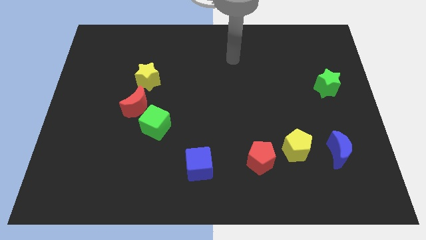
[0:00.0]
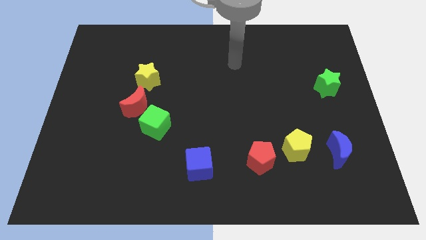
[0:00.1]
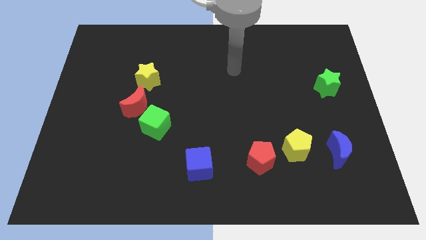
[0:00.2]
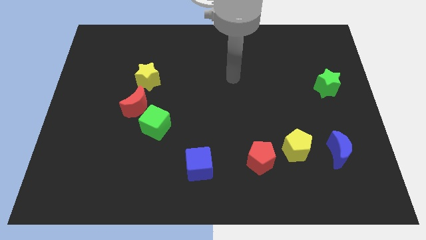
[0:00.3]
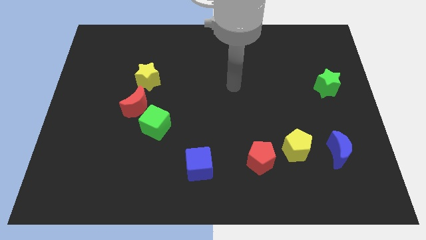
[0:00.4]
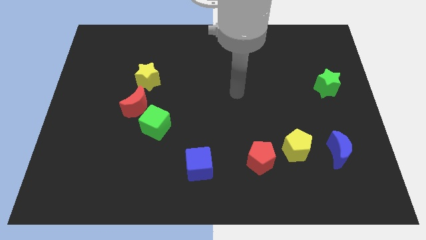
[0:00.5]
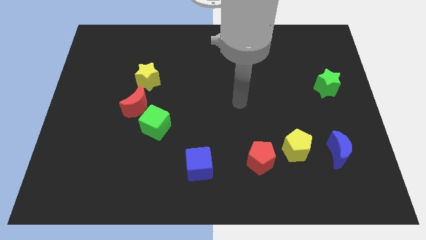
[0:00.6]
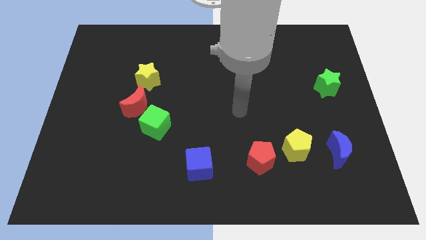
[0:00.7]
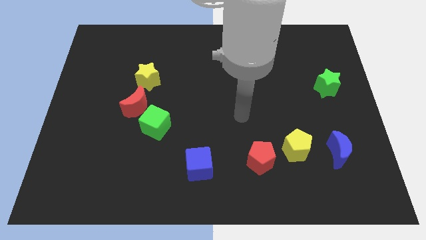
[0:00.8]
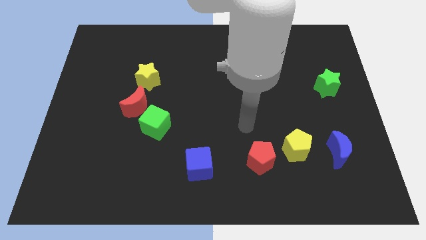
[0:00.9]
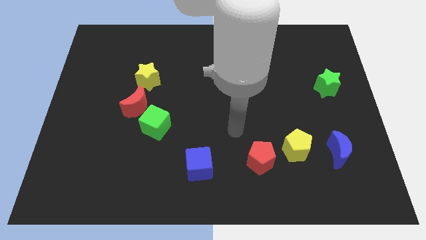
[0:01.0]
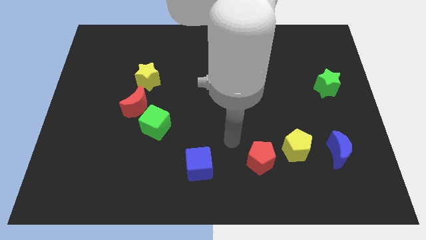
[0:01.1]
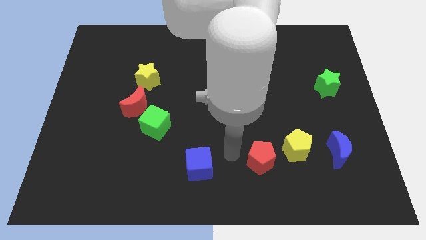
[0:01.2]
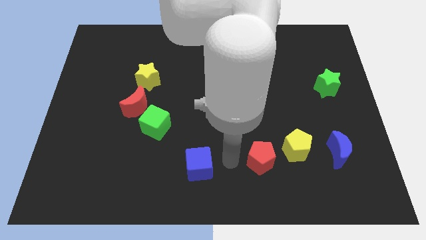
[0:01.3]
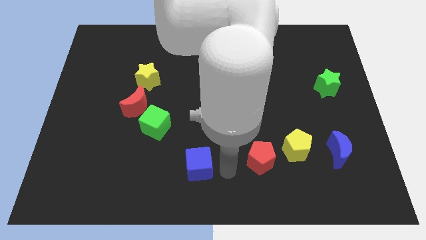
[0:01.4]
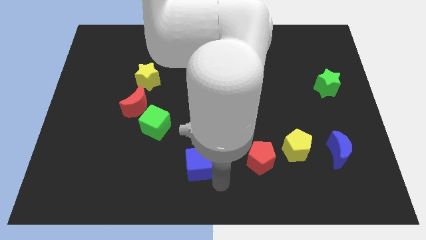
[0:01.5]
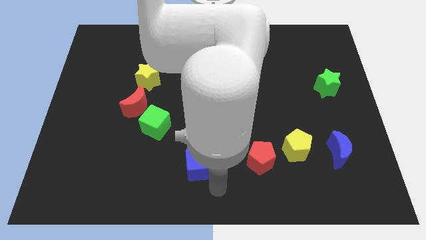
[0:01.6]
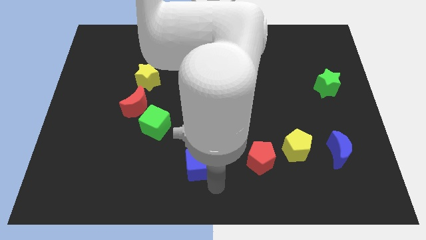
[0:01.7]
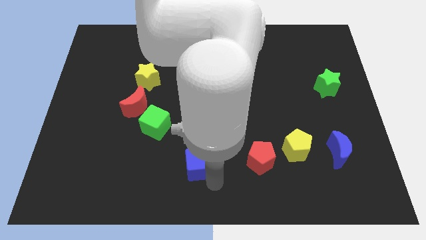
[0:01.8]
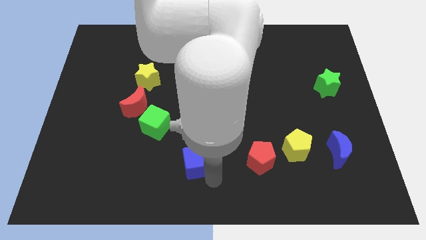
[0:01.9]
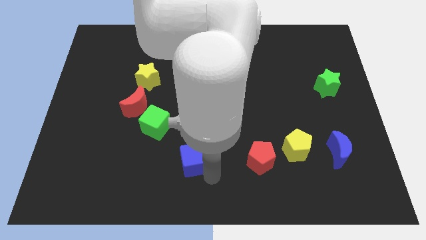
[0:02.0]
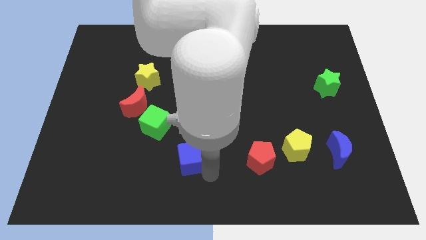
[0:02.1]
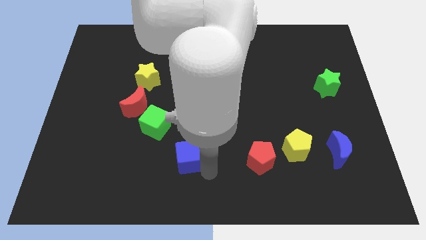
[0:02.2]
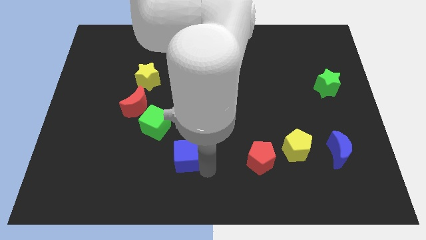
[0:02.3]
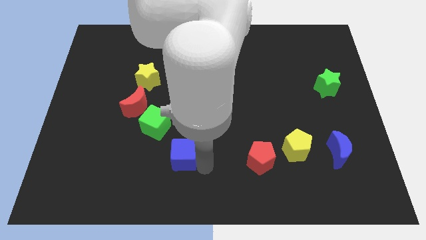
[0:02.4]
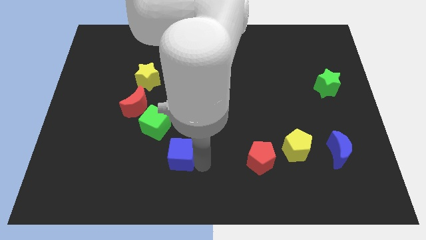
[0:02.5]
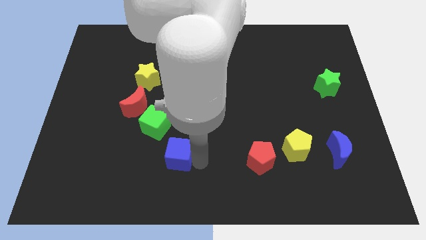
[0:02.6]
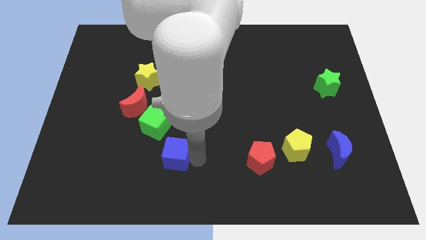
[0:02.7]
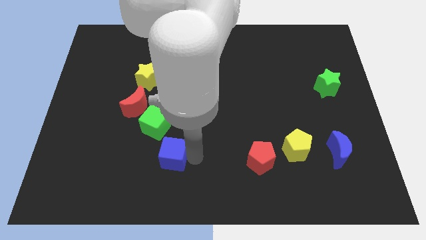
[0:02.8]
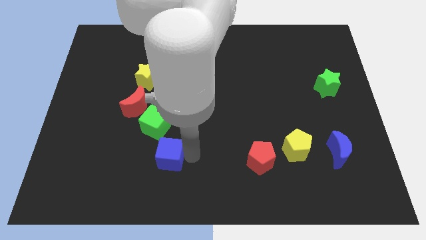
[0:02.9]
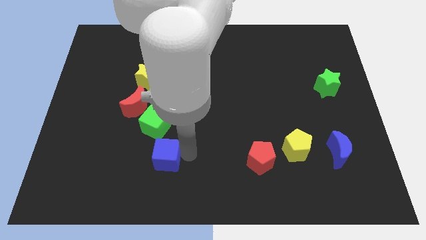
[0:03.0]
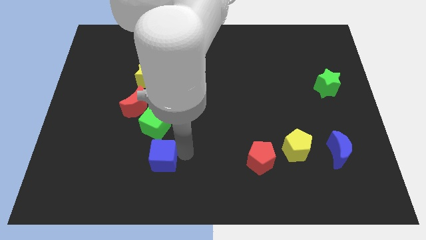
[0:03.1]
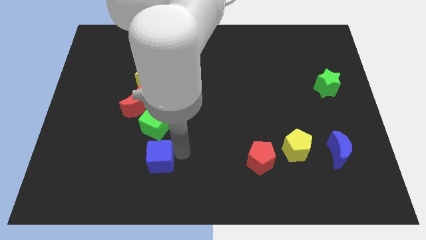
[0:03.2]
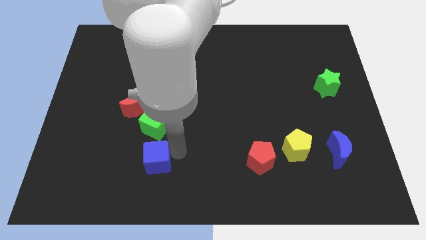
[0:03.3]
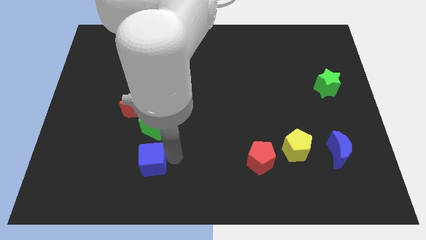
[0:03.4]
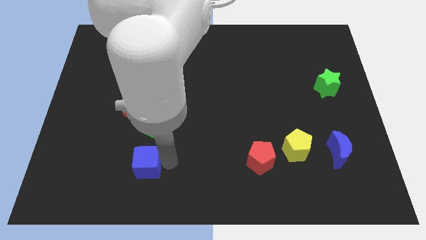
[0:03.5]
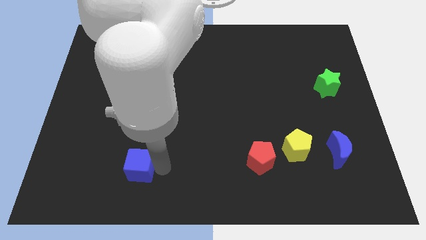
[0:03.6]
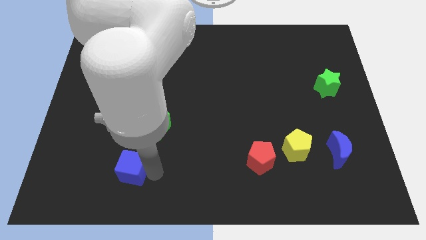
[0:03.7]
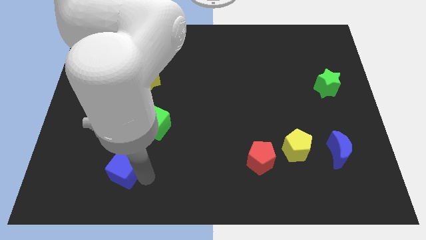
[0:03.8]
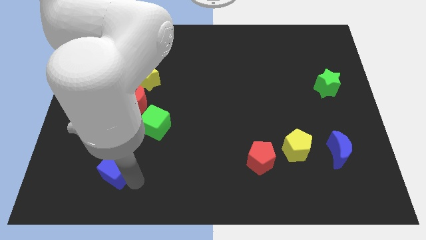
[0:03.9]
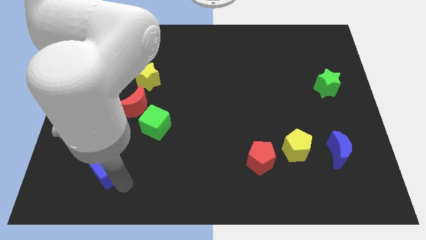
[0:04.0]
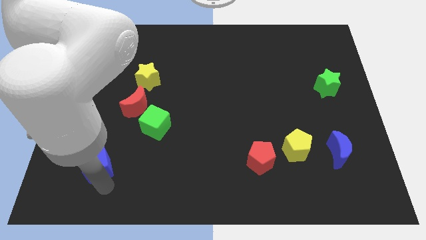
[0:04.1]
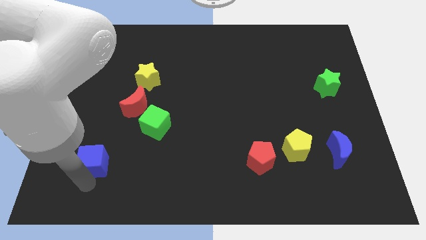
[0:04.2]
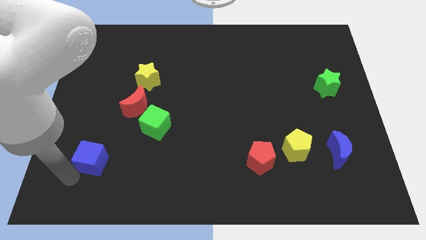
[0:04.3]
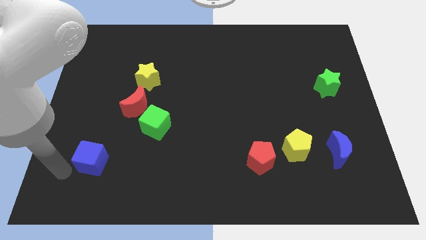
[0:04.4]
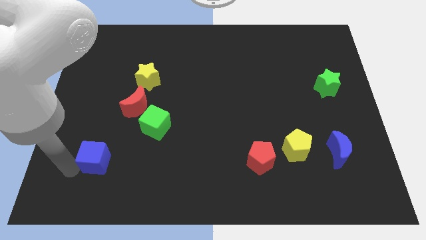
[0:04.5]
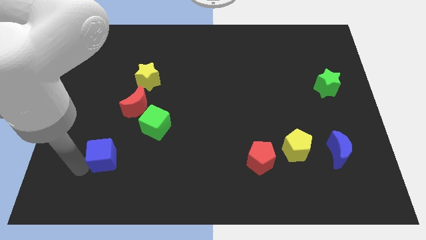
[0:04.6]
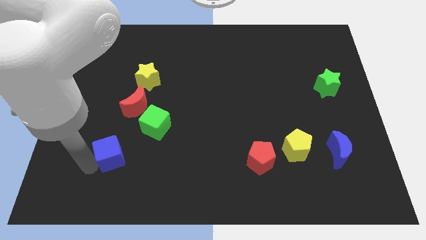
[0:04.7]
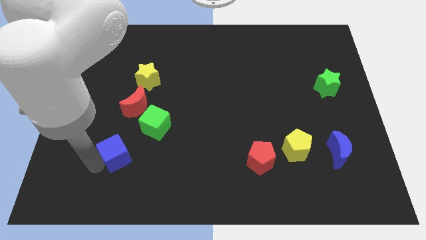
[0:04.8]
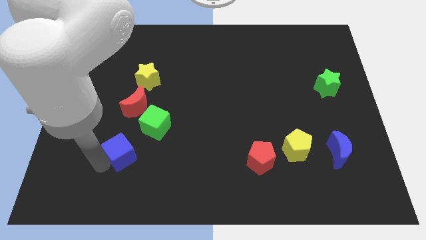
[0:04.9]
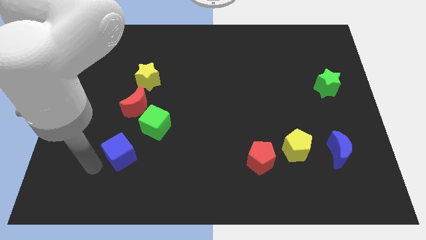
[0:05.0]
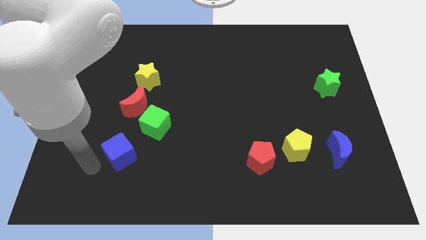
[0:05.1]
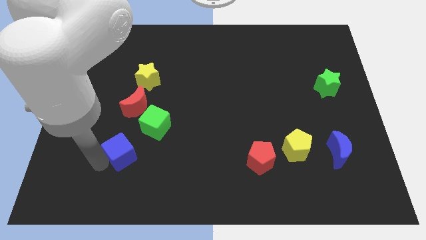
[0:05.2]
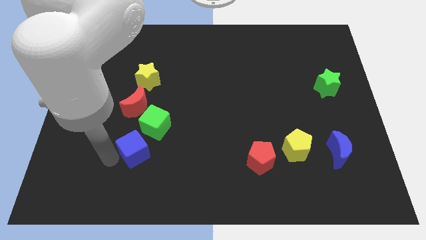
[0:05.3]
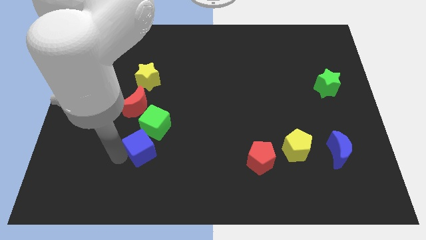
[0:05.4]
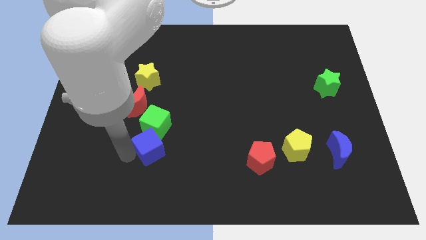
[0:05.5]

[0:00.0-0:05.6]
move the blue cube close to the green cube

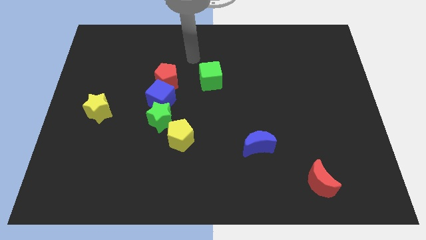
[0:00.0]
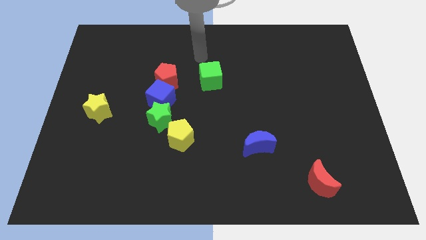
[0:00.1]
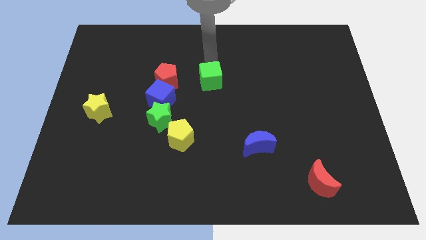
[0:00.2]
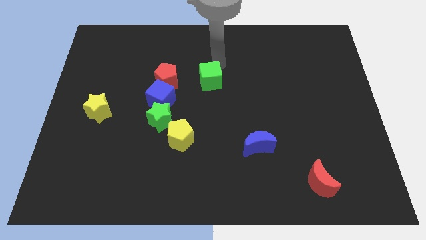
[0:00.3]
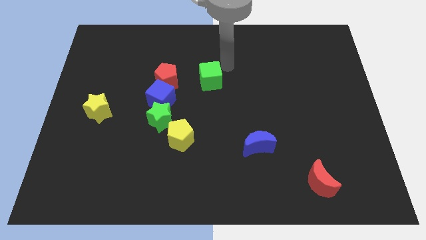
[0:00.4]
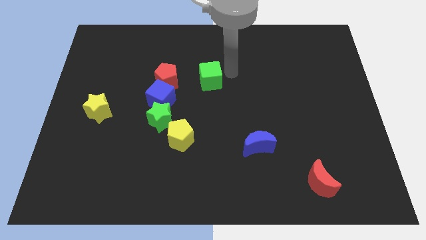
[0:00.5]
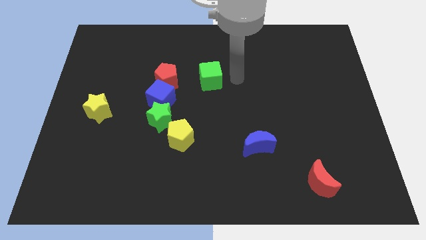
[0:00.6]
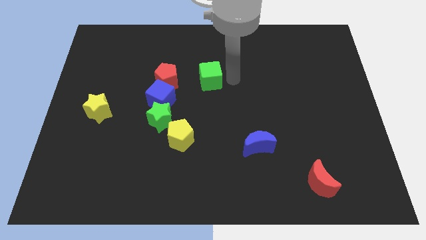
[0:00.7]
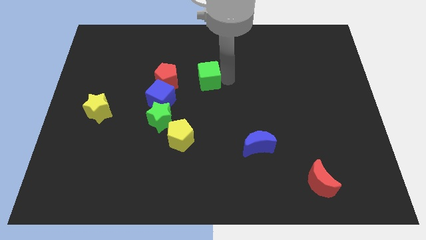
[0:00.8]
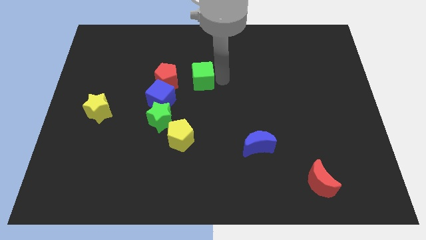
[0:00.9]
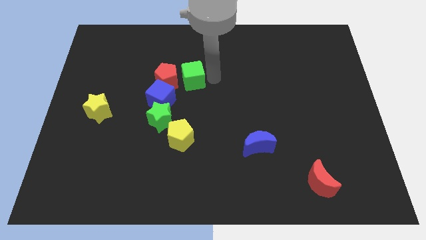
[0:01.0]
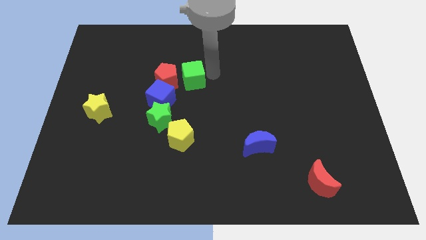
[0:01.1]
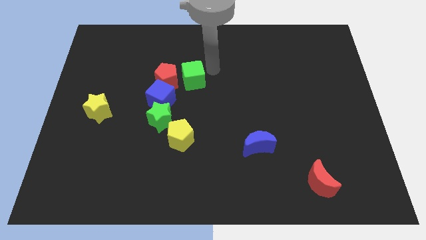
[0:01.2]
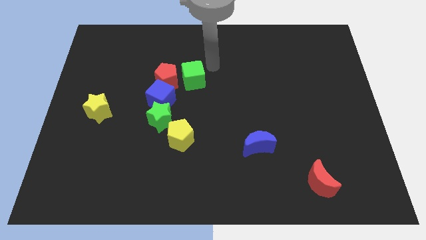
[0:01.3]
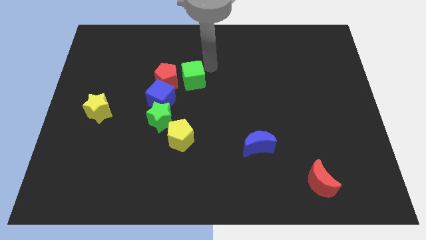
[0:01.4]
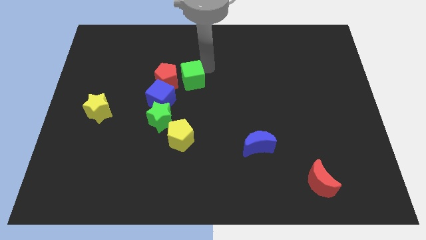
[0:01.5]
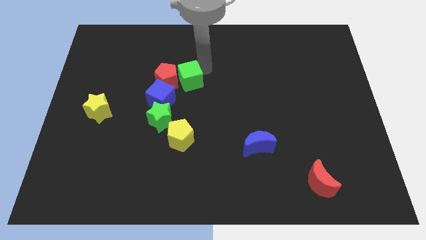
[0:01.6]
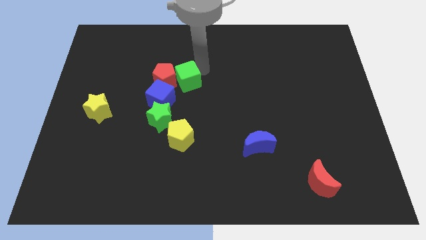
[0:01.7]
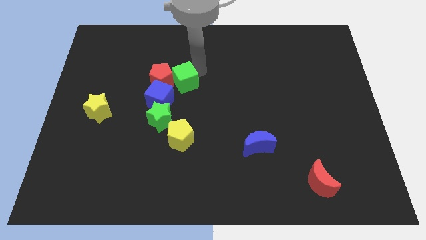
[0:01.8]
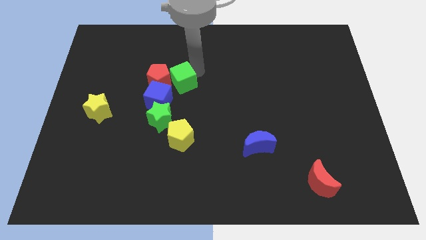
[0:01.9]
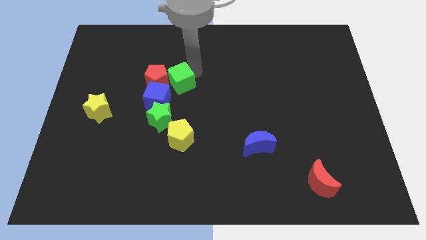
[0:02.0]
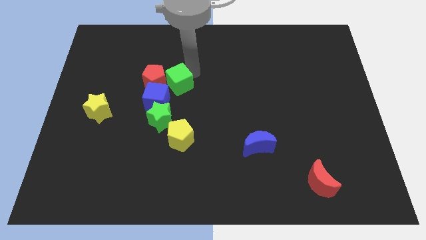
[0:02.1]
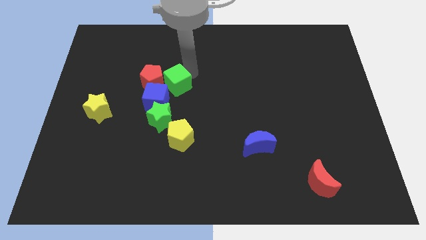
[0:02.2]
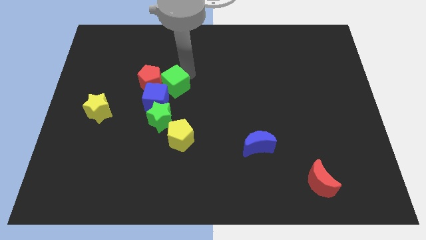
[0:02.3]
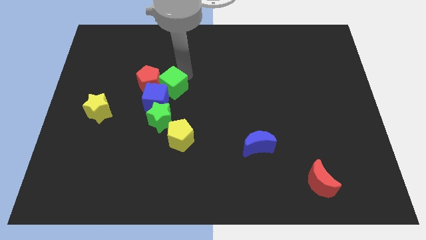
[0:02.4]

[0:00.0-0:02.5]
push the green cube close to the blue cube
